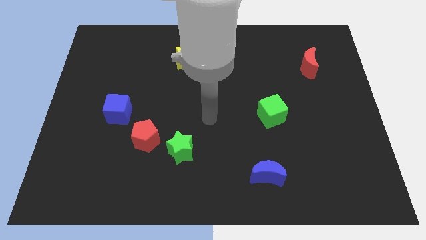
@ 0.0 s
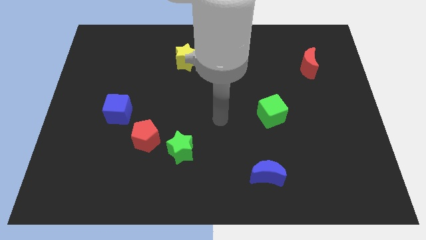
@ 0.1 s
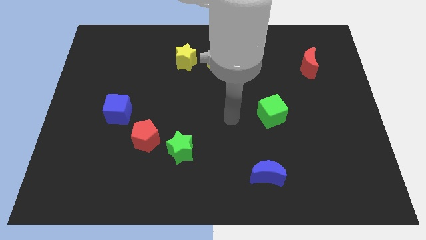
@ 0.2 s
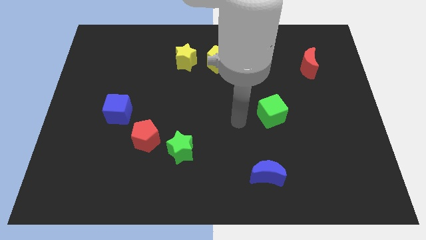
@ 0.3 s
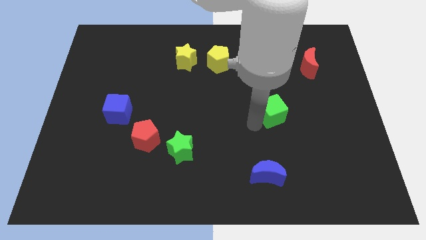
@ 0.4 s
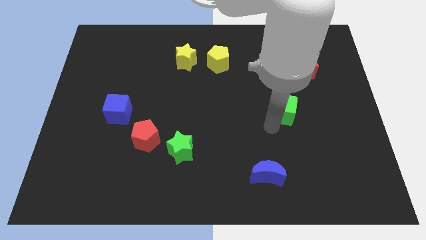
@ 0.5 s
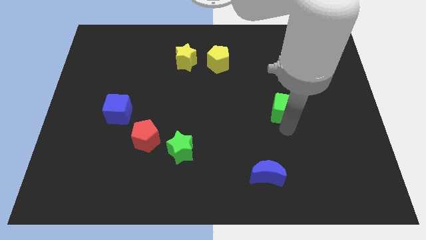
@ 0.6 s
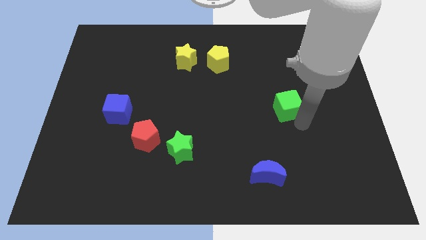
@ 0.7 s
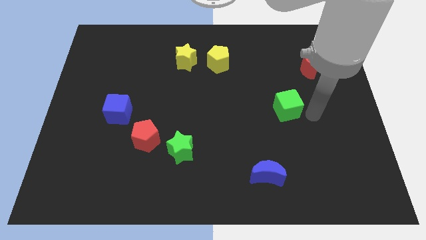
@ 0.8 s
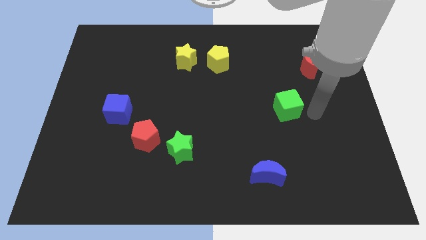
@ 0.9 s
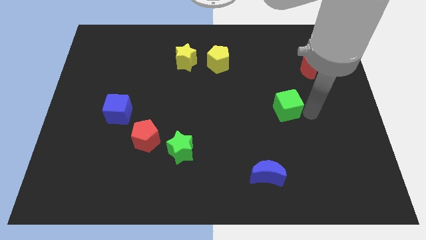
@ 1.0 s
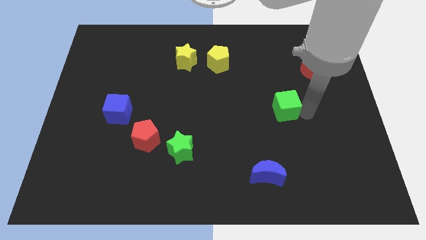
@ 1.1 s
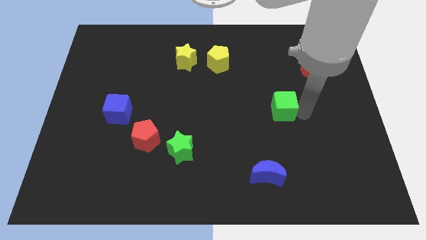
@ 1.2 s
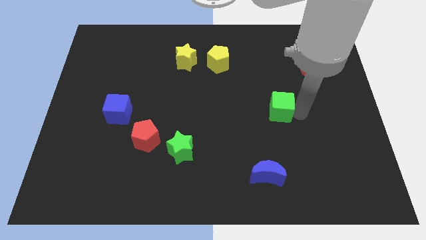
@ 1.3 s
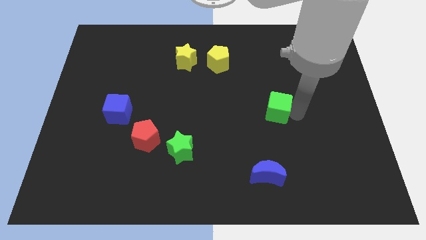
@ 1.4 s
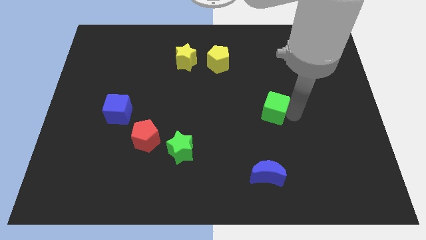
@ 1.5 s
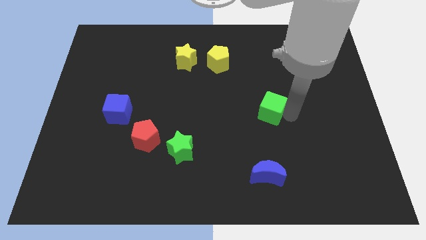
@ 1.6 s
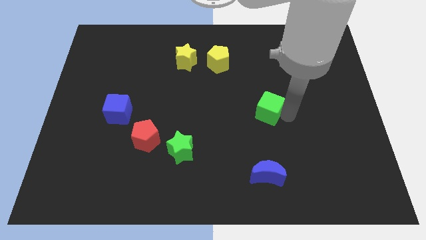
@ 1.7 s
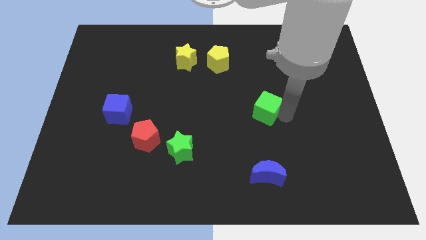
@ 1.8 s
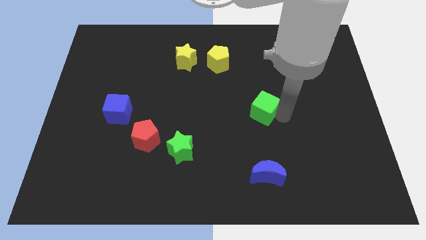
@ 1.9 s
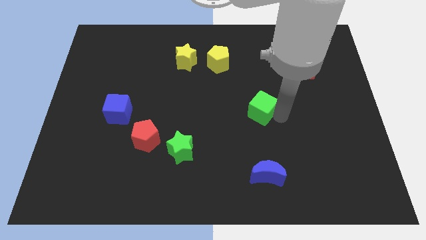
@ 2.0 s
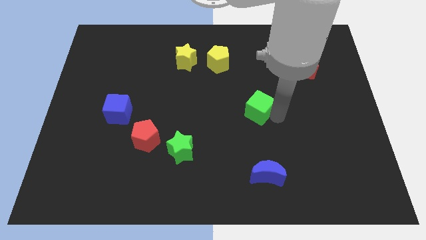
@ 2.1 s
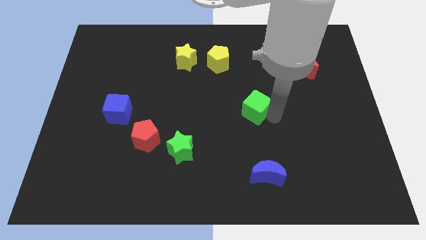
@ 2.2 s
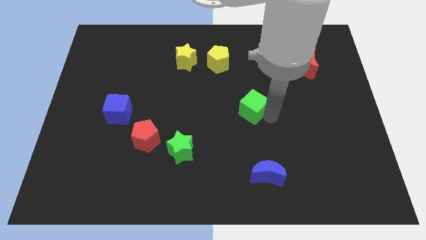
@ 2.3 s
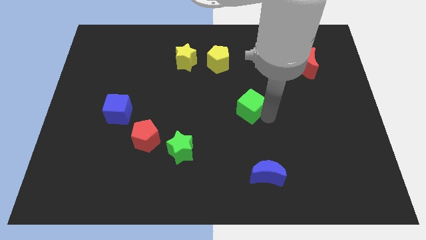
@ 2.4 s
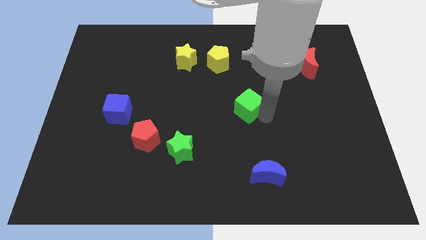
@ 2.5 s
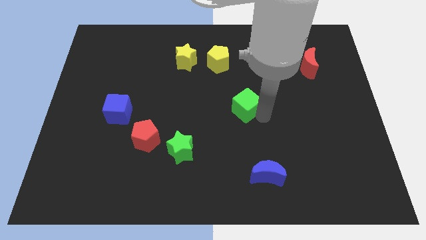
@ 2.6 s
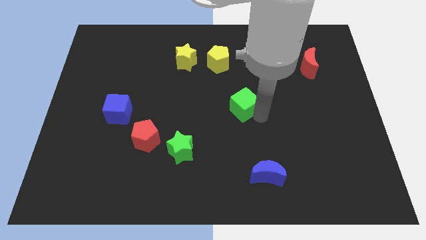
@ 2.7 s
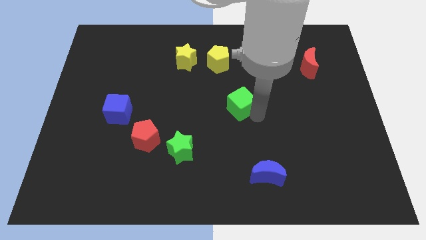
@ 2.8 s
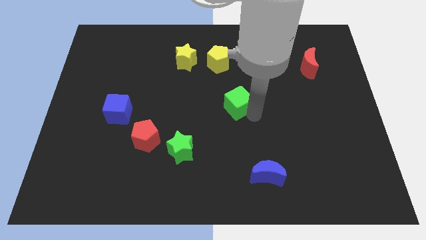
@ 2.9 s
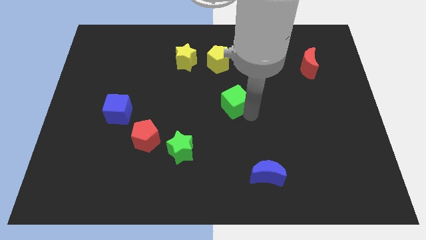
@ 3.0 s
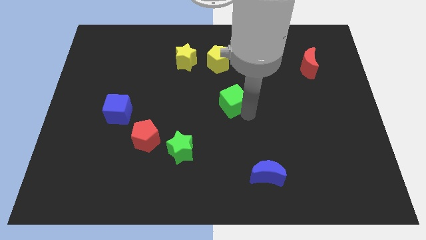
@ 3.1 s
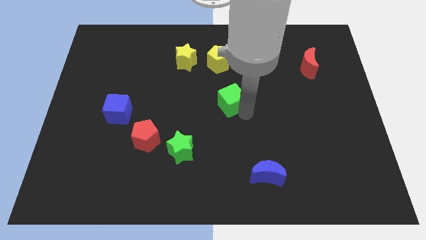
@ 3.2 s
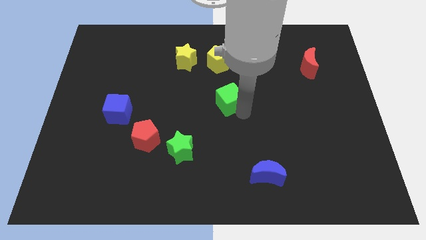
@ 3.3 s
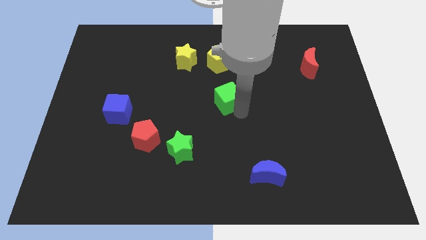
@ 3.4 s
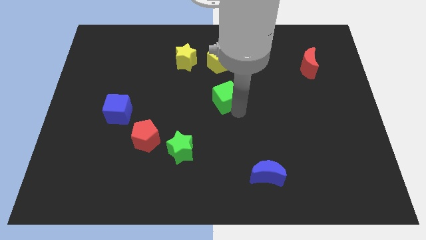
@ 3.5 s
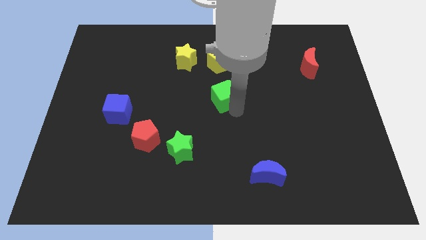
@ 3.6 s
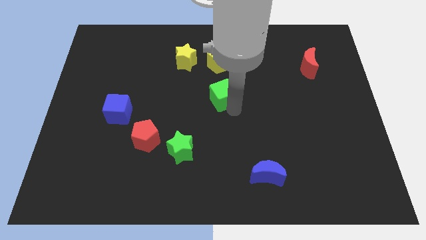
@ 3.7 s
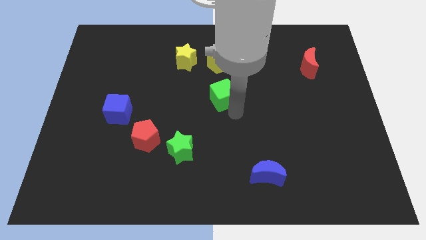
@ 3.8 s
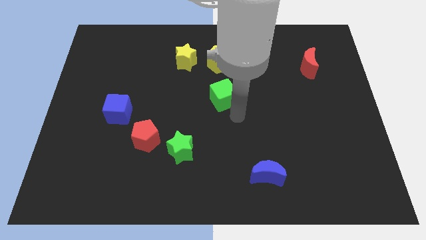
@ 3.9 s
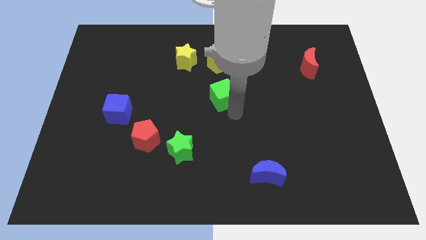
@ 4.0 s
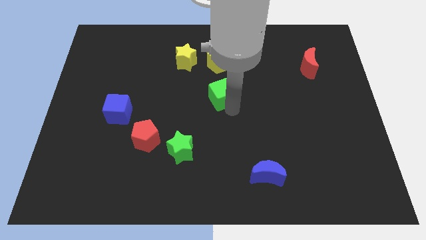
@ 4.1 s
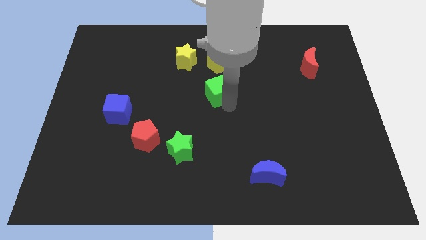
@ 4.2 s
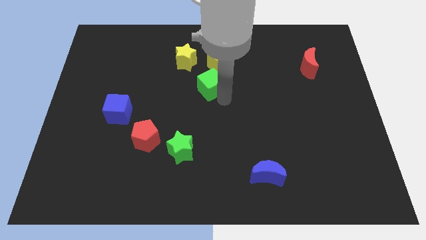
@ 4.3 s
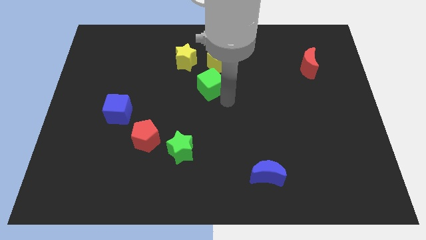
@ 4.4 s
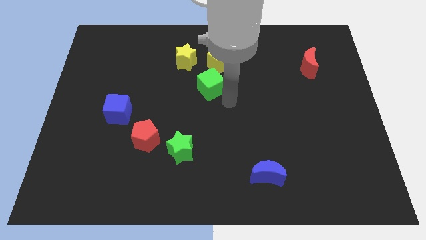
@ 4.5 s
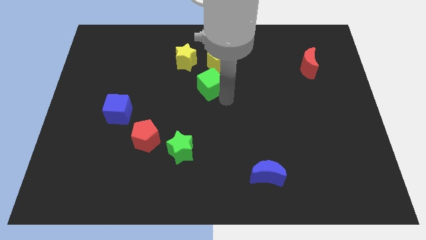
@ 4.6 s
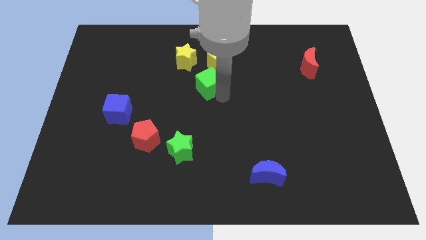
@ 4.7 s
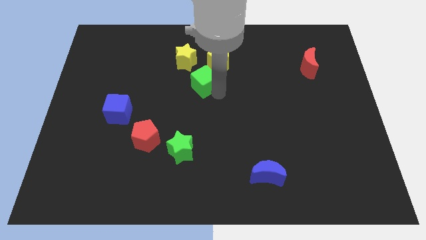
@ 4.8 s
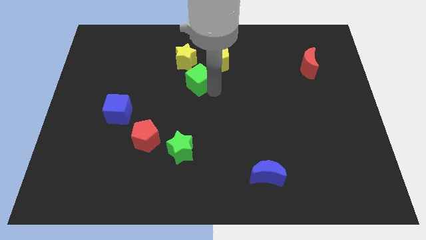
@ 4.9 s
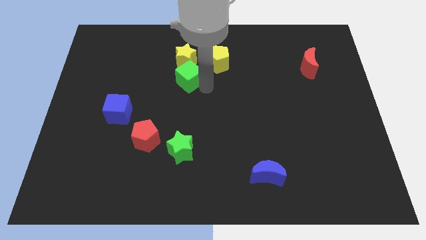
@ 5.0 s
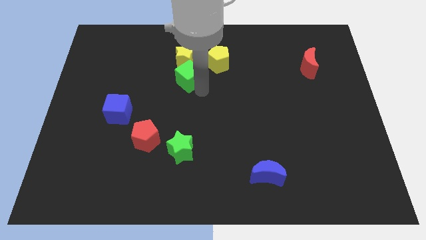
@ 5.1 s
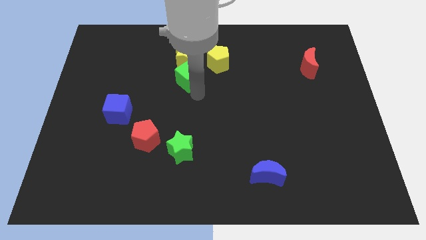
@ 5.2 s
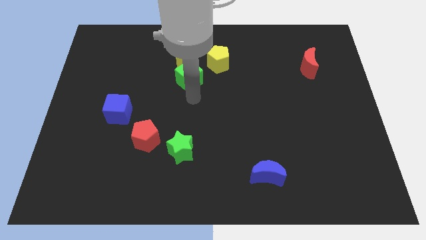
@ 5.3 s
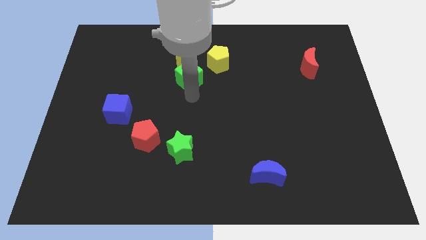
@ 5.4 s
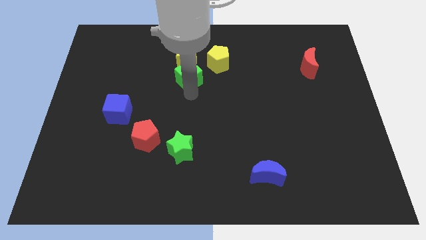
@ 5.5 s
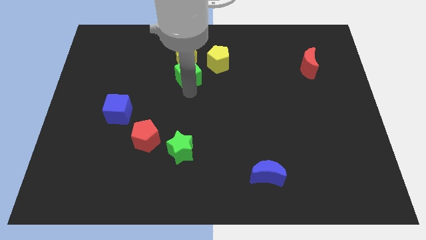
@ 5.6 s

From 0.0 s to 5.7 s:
move the green cube next to the yellow star

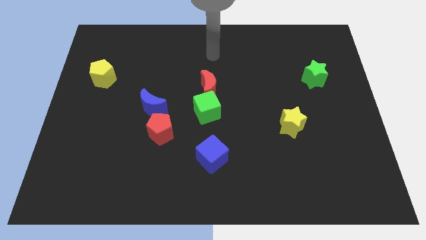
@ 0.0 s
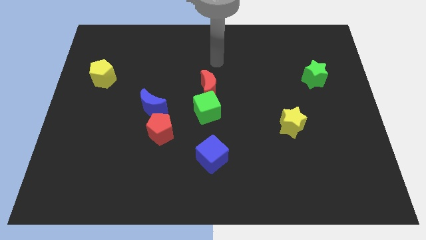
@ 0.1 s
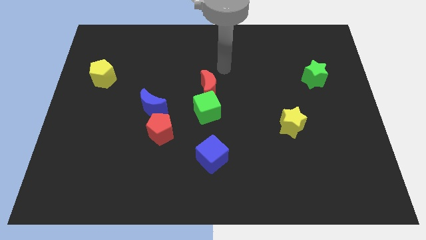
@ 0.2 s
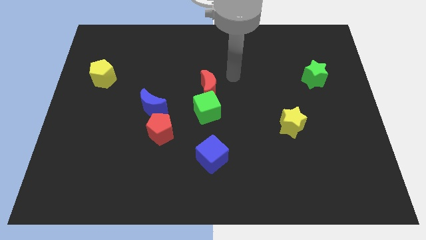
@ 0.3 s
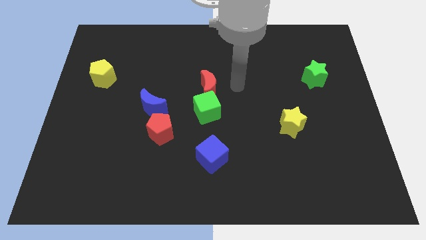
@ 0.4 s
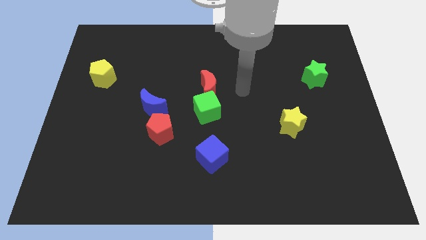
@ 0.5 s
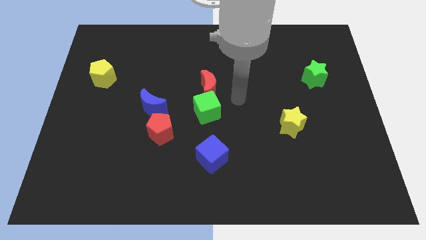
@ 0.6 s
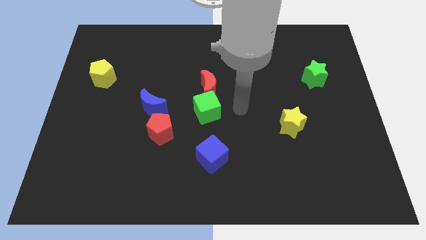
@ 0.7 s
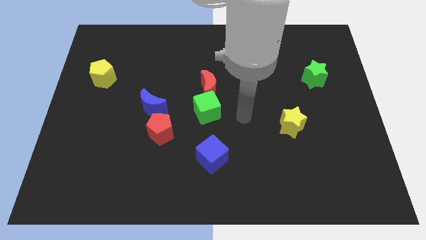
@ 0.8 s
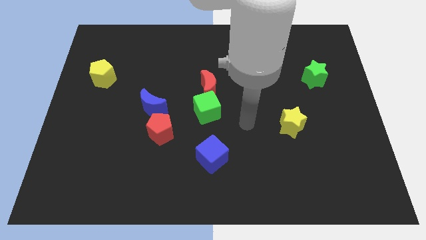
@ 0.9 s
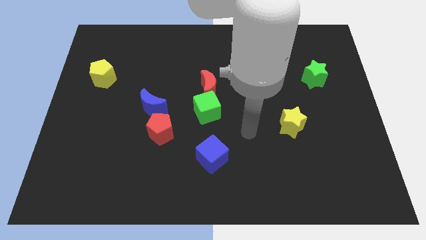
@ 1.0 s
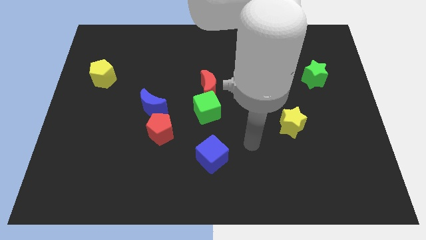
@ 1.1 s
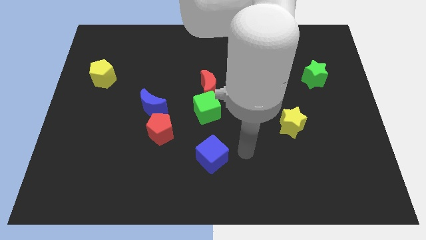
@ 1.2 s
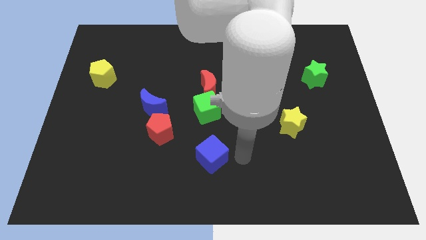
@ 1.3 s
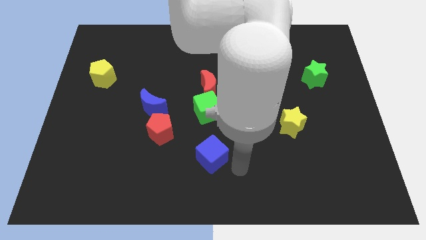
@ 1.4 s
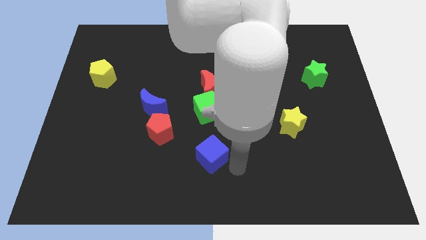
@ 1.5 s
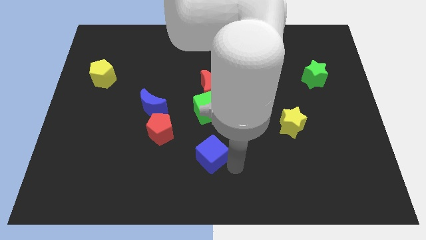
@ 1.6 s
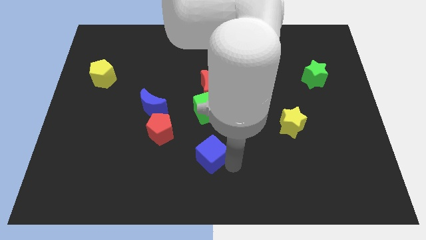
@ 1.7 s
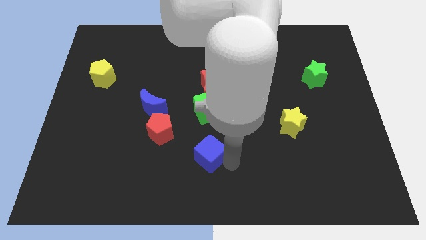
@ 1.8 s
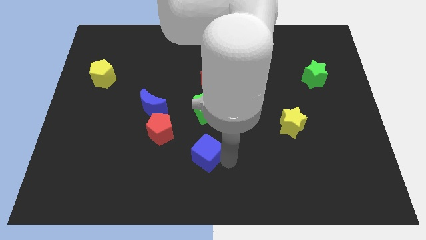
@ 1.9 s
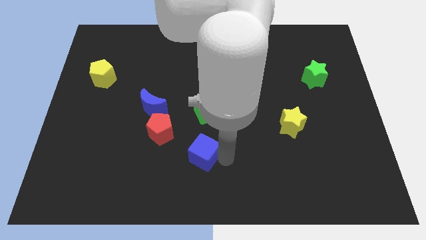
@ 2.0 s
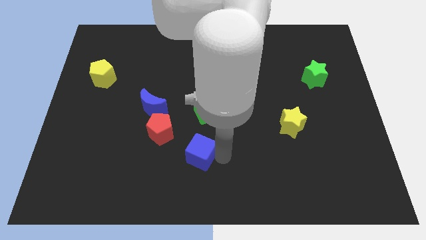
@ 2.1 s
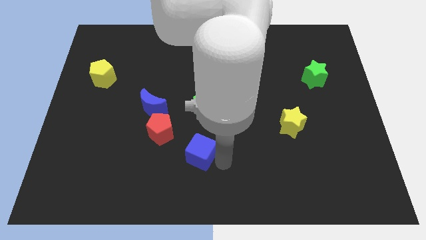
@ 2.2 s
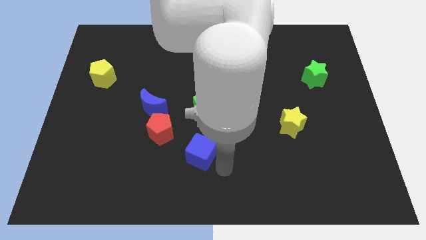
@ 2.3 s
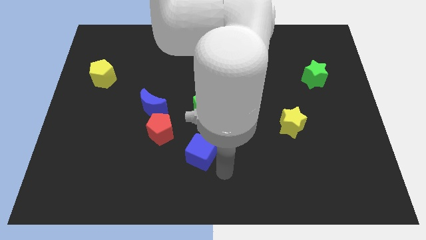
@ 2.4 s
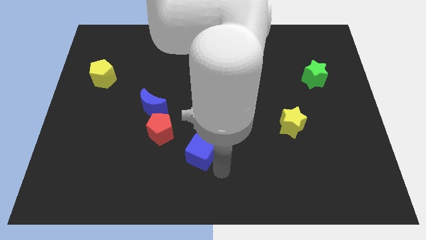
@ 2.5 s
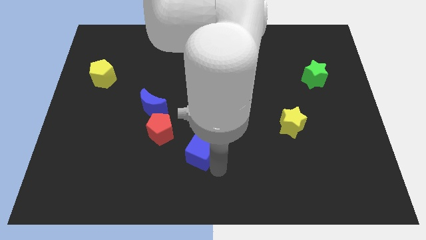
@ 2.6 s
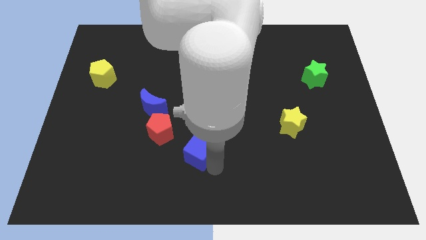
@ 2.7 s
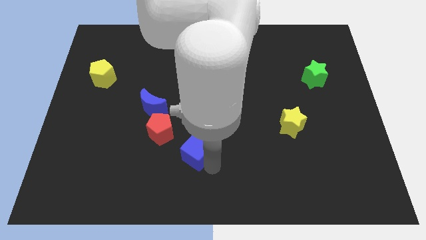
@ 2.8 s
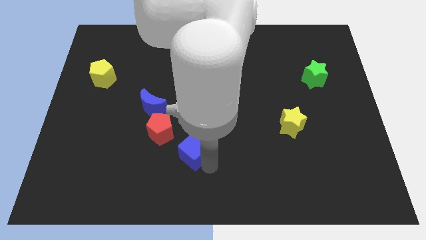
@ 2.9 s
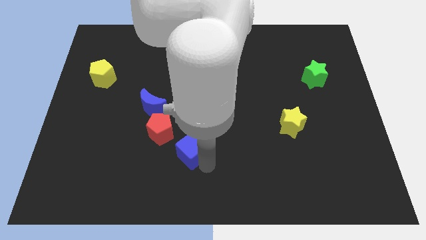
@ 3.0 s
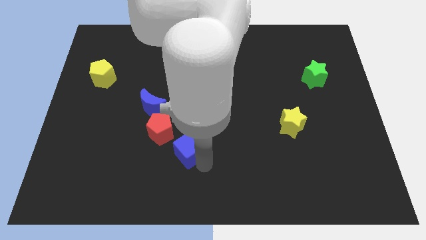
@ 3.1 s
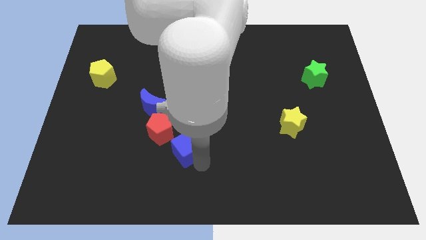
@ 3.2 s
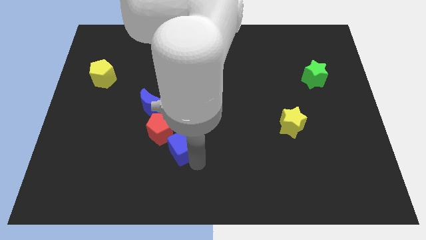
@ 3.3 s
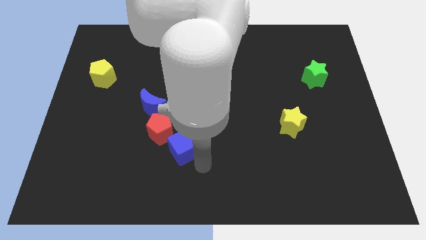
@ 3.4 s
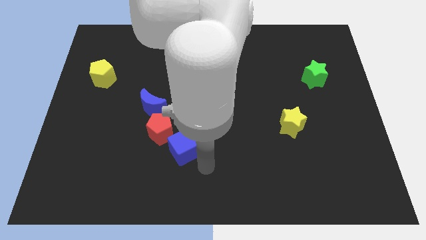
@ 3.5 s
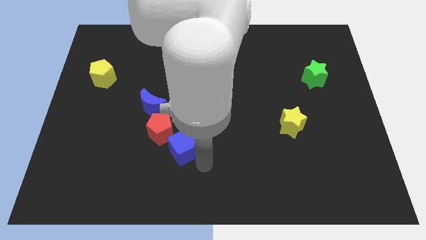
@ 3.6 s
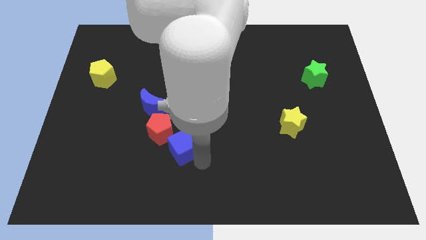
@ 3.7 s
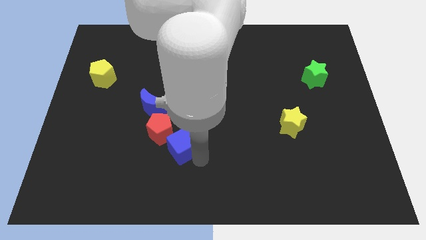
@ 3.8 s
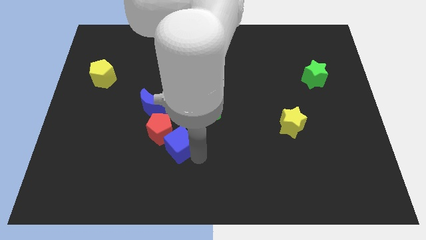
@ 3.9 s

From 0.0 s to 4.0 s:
put the blue cube next to the red pentagon
